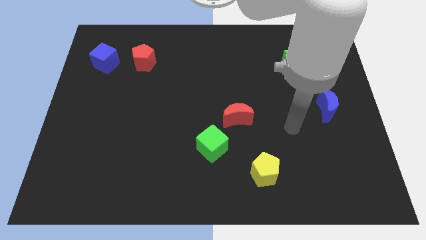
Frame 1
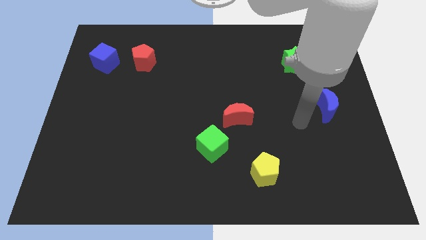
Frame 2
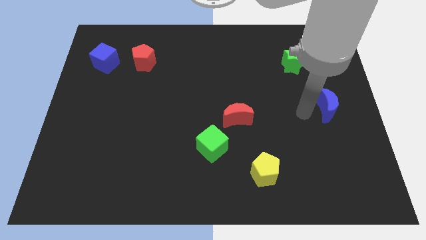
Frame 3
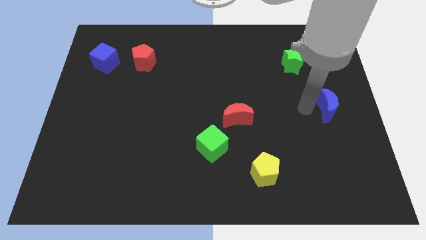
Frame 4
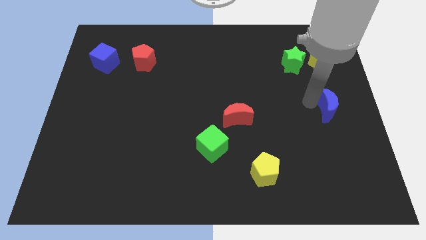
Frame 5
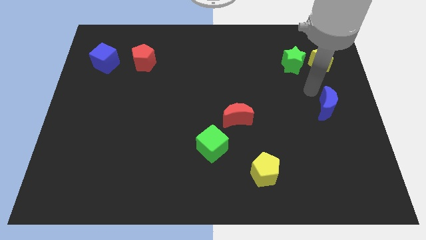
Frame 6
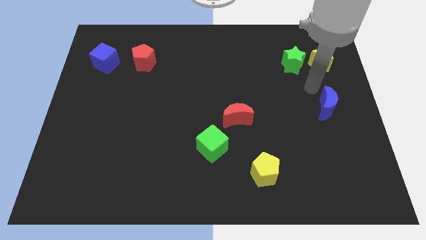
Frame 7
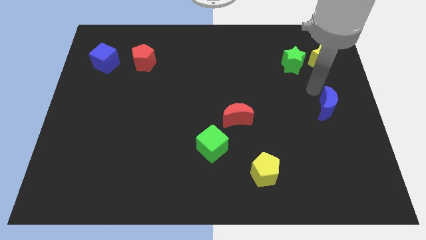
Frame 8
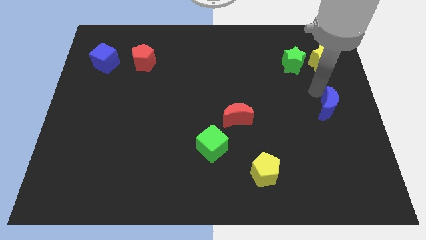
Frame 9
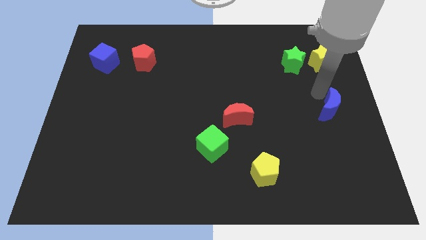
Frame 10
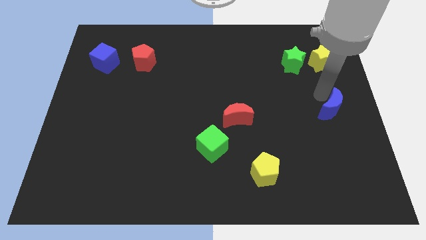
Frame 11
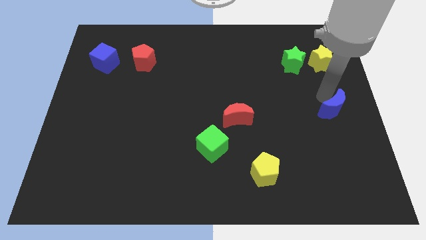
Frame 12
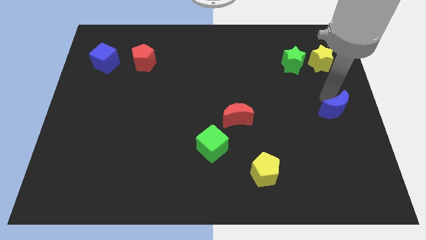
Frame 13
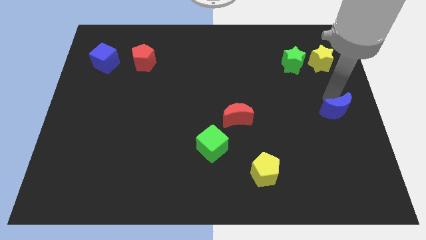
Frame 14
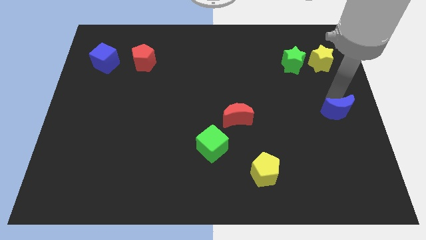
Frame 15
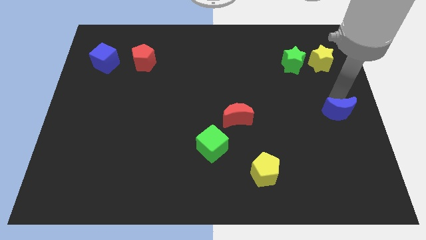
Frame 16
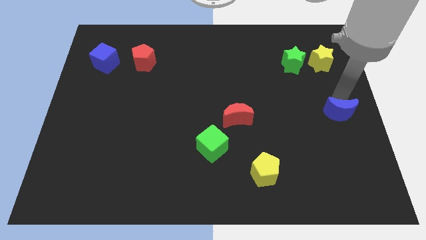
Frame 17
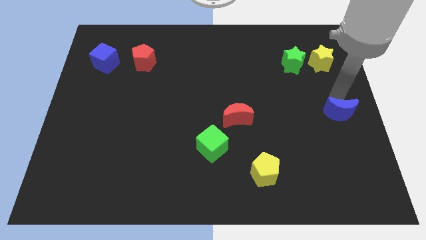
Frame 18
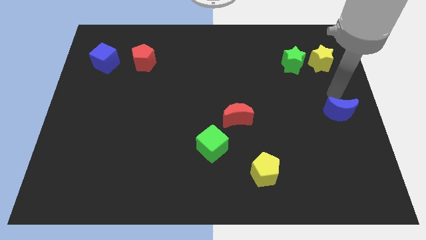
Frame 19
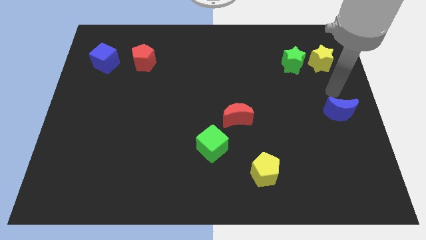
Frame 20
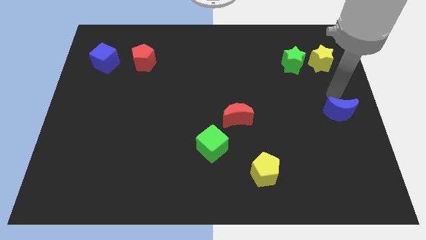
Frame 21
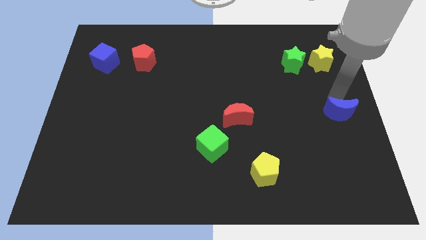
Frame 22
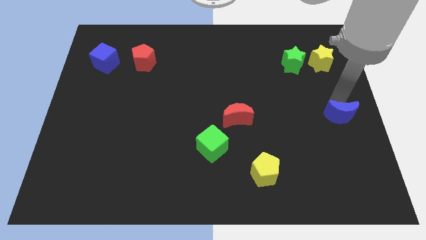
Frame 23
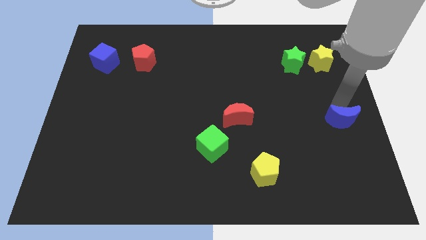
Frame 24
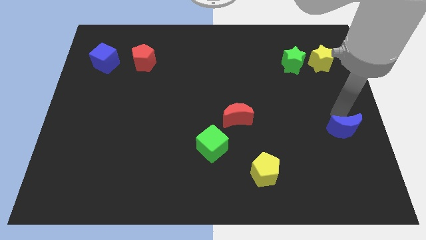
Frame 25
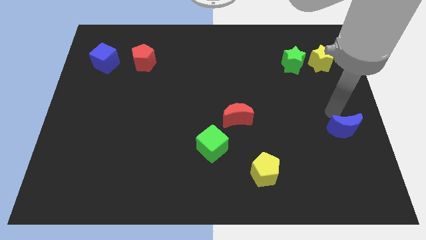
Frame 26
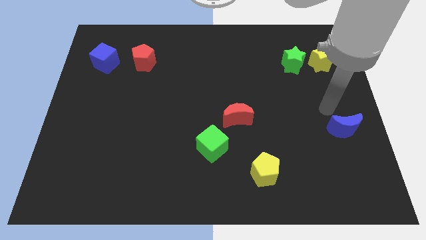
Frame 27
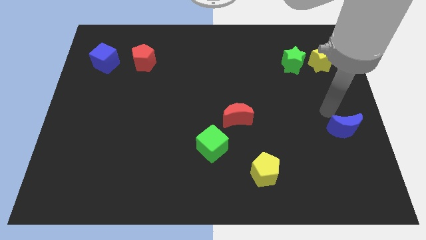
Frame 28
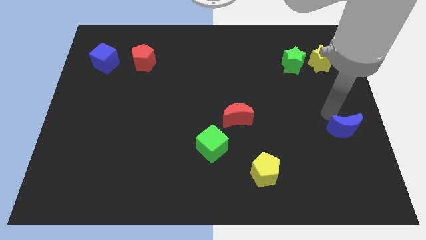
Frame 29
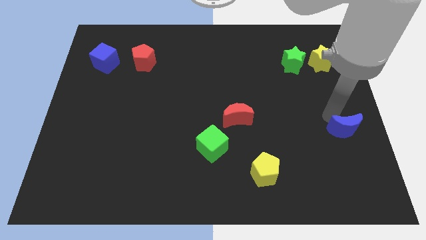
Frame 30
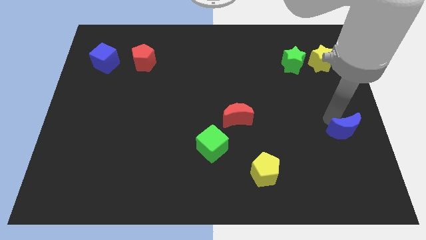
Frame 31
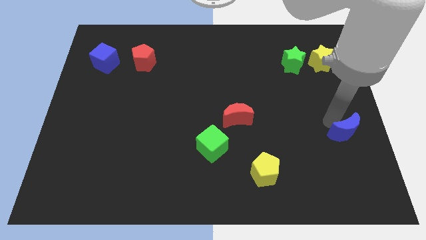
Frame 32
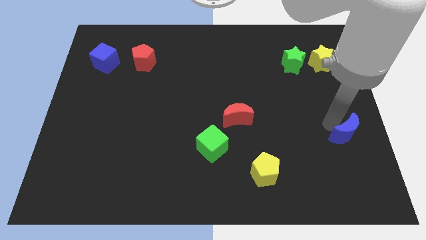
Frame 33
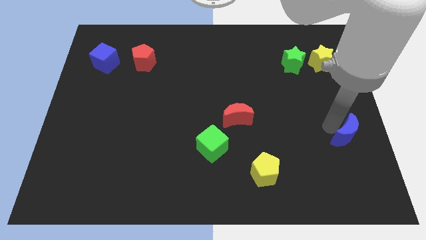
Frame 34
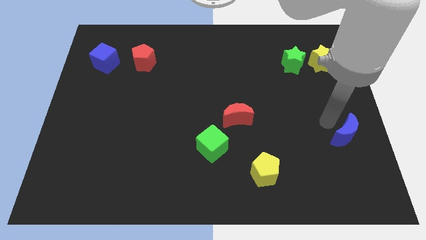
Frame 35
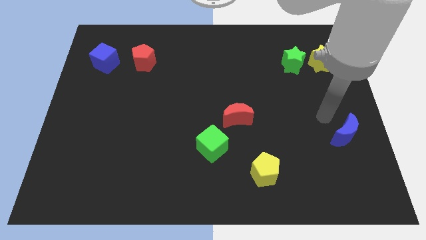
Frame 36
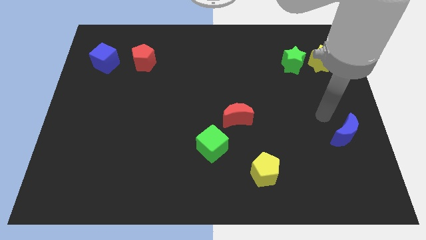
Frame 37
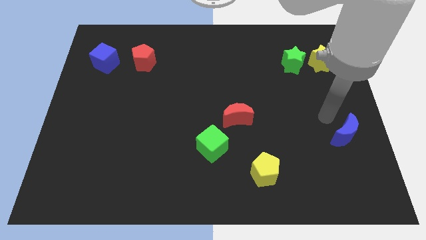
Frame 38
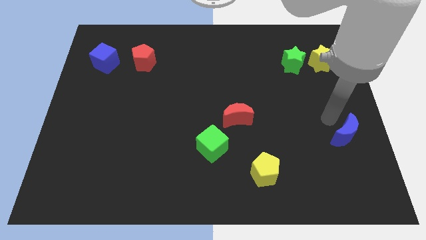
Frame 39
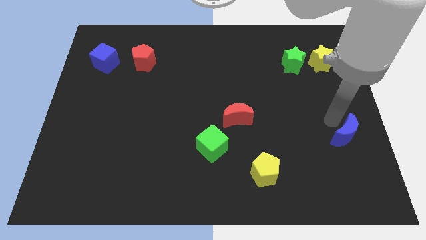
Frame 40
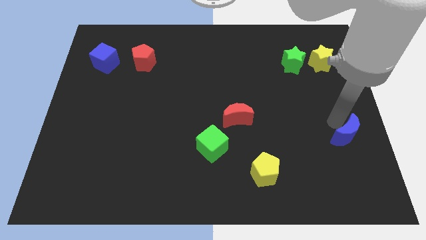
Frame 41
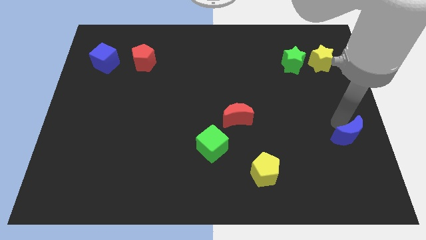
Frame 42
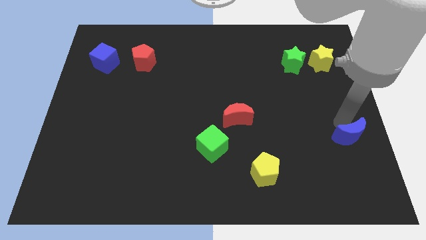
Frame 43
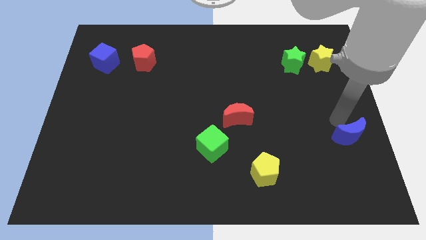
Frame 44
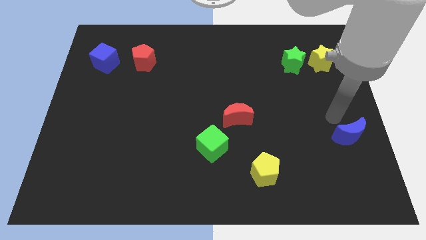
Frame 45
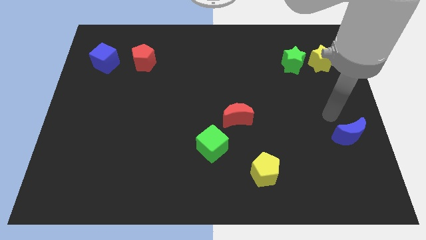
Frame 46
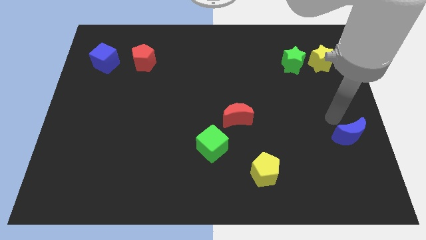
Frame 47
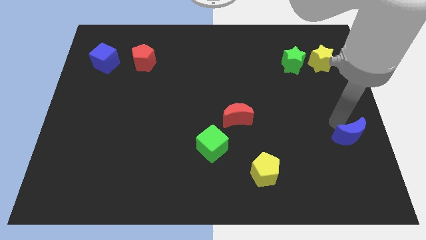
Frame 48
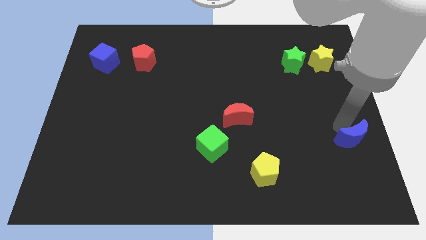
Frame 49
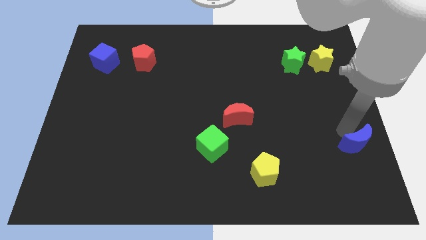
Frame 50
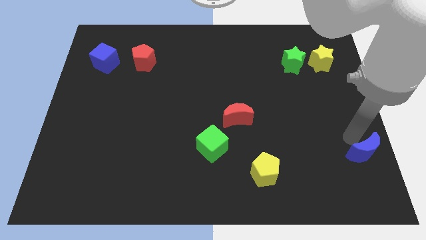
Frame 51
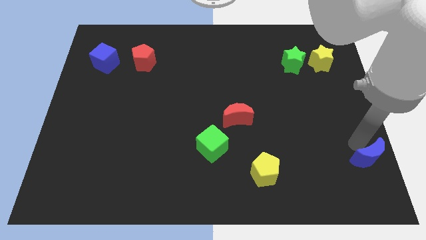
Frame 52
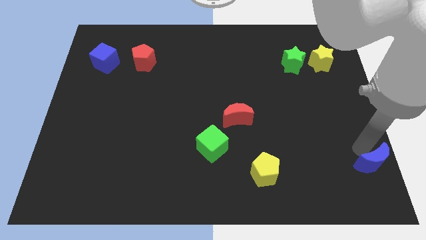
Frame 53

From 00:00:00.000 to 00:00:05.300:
slide the blue moon to the bottom right corner

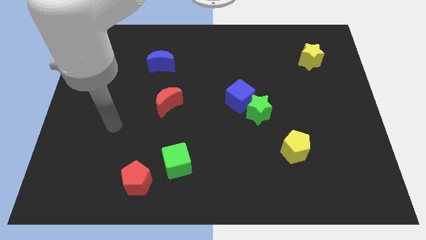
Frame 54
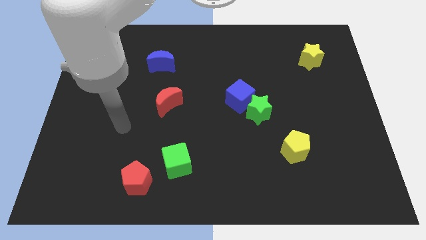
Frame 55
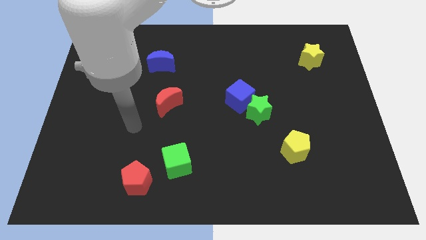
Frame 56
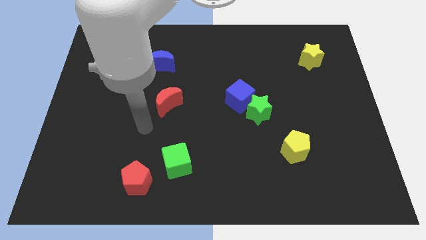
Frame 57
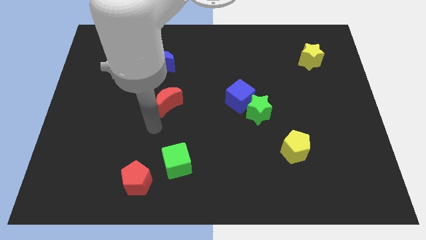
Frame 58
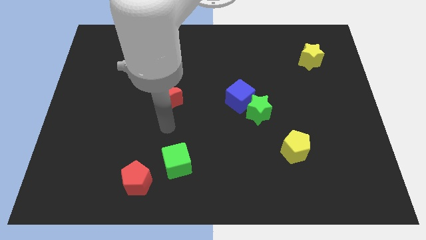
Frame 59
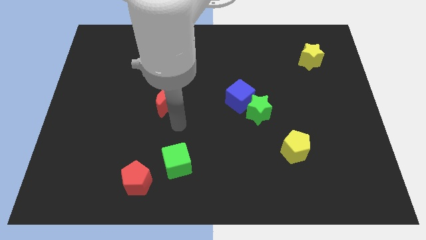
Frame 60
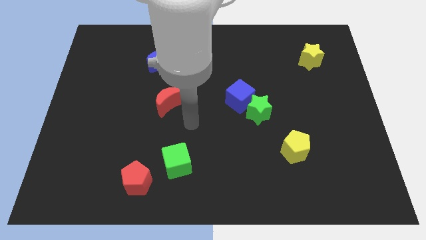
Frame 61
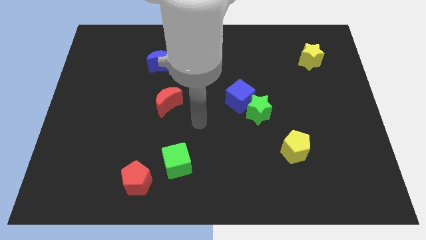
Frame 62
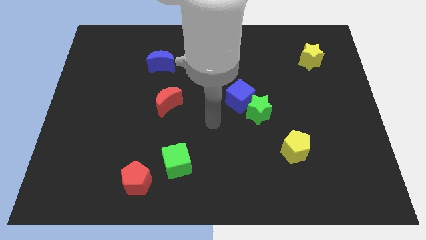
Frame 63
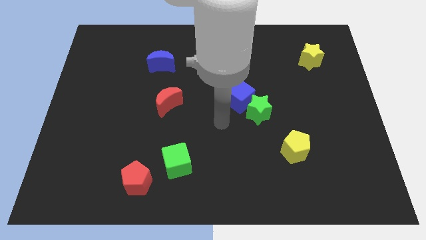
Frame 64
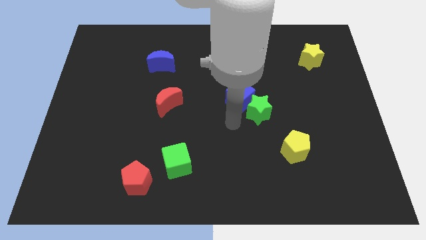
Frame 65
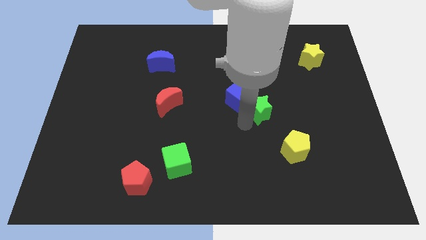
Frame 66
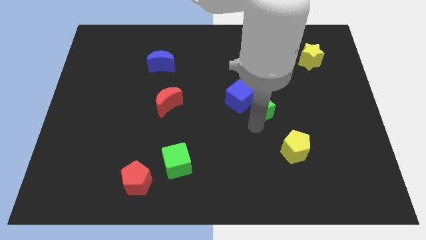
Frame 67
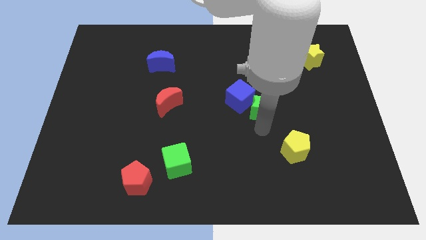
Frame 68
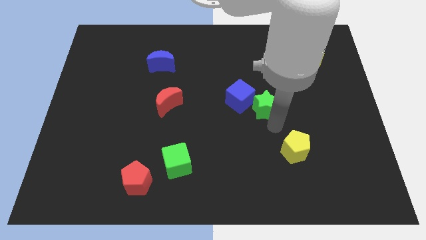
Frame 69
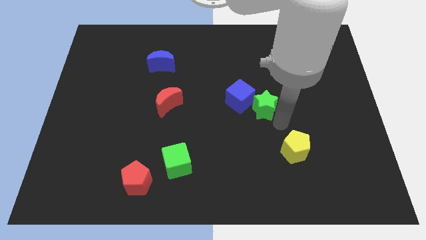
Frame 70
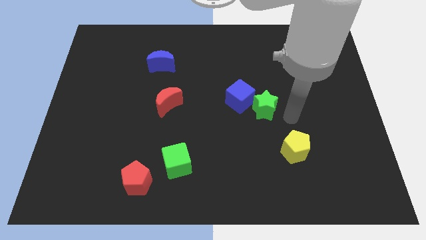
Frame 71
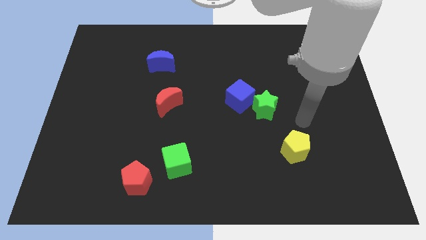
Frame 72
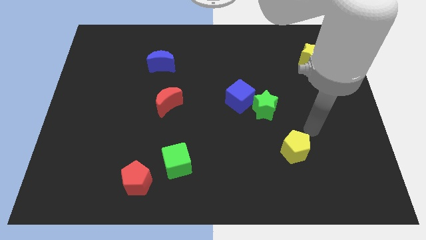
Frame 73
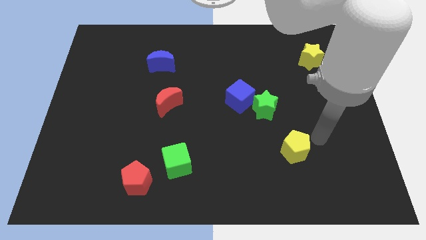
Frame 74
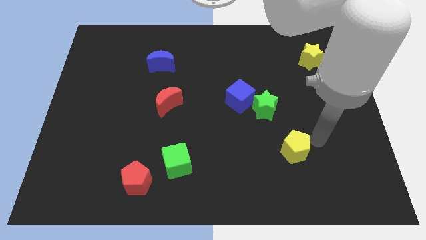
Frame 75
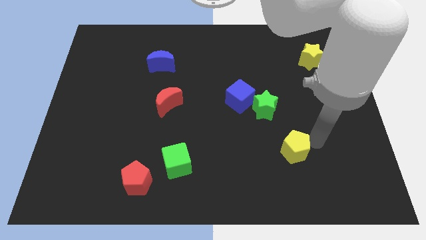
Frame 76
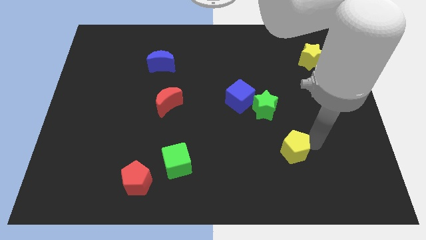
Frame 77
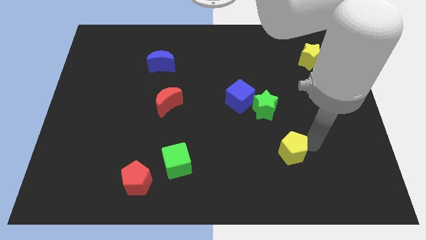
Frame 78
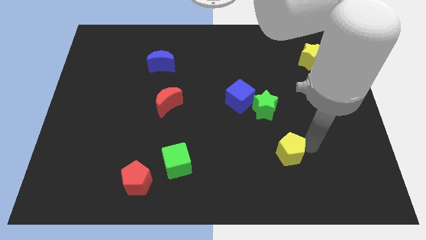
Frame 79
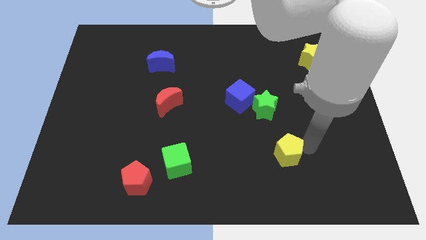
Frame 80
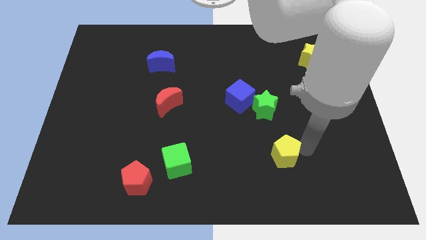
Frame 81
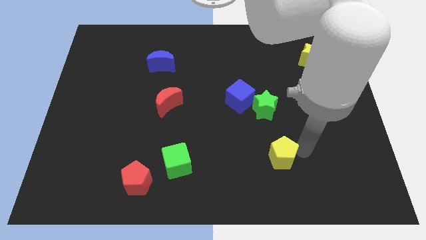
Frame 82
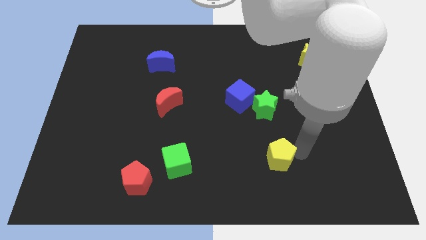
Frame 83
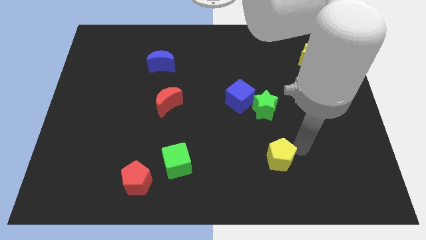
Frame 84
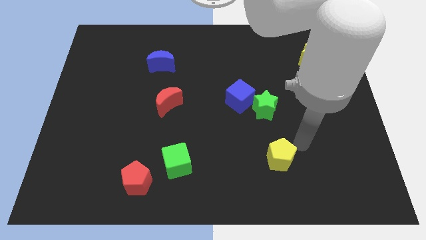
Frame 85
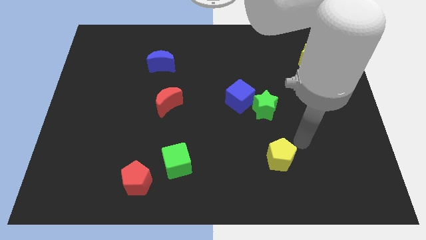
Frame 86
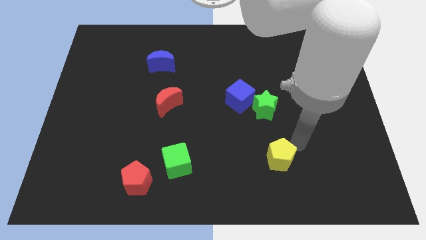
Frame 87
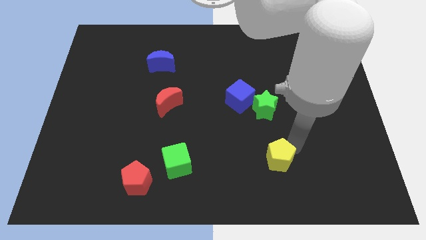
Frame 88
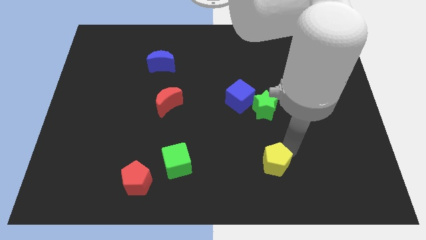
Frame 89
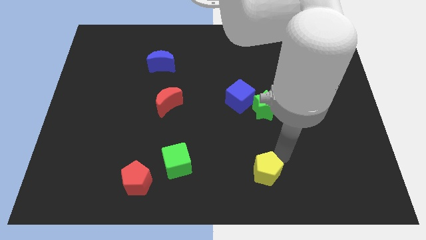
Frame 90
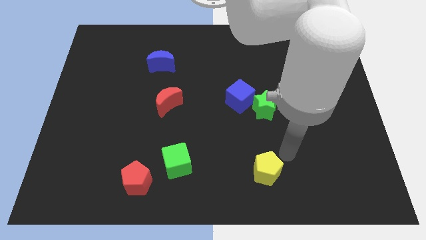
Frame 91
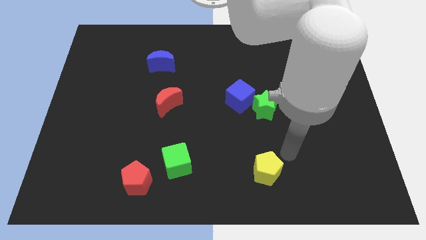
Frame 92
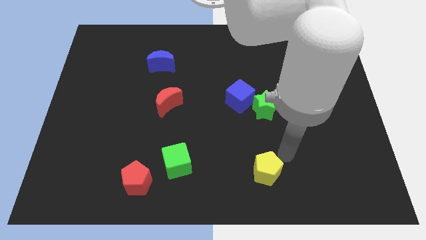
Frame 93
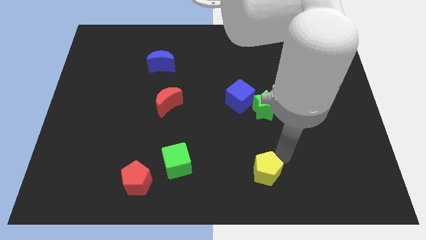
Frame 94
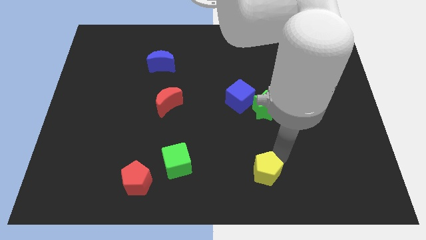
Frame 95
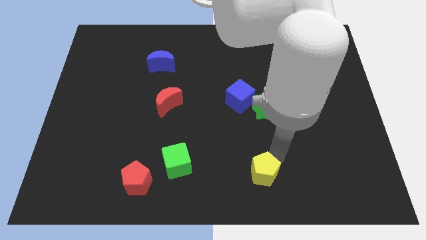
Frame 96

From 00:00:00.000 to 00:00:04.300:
push the yellow pentagon to the bottom
